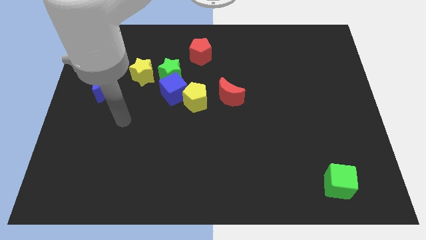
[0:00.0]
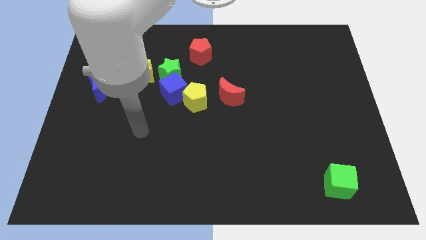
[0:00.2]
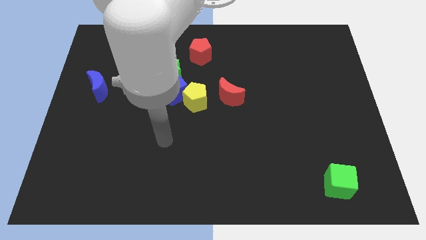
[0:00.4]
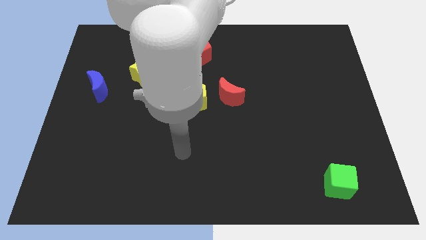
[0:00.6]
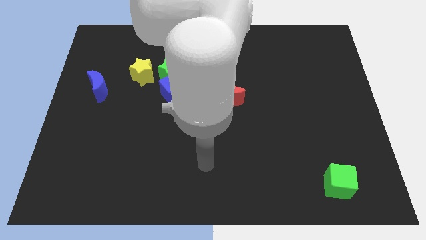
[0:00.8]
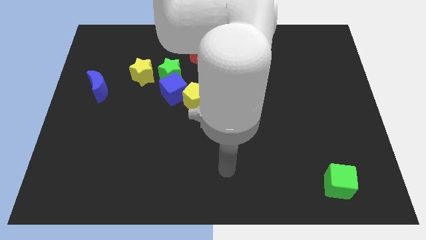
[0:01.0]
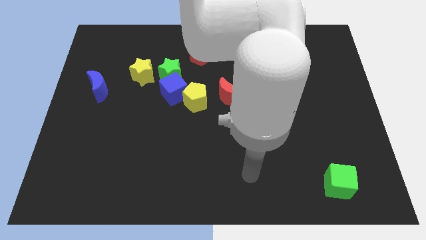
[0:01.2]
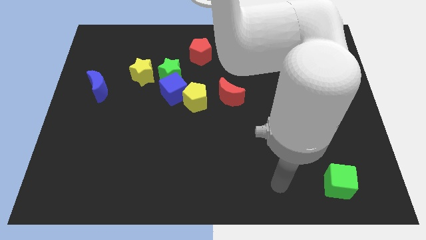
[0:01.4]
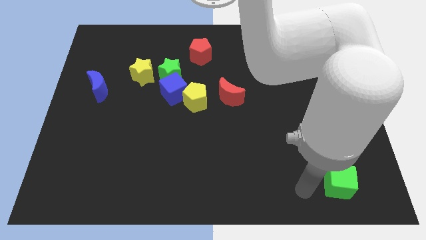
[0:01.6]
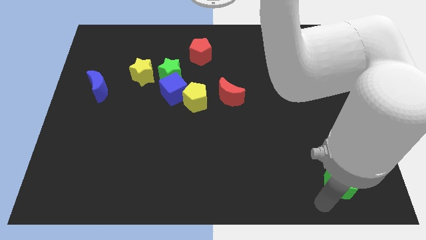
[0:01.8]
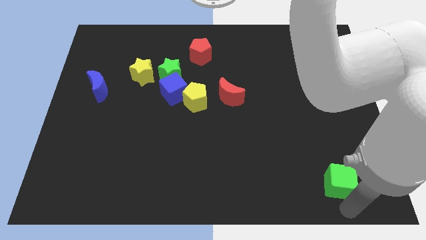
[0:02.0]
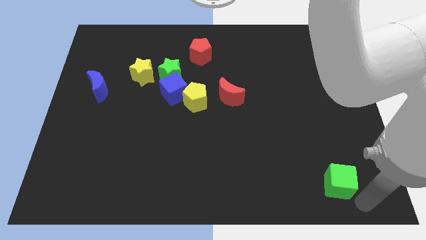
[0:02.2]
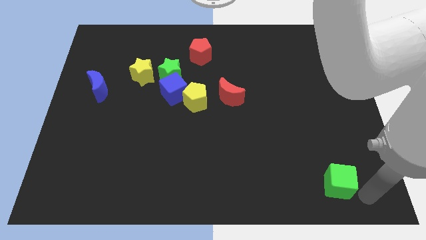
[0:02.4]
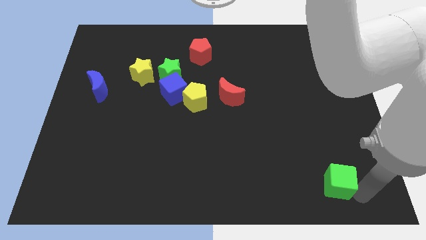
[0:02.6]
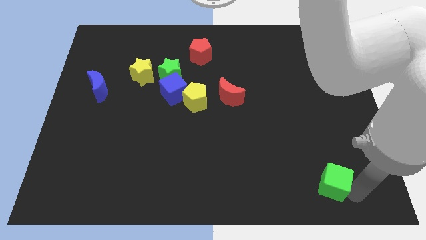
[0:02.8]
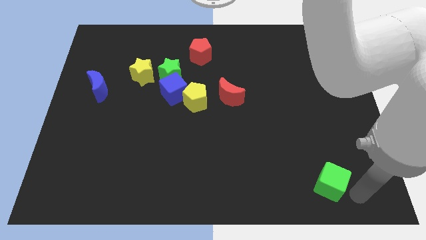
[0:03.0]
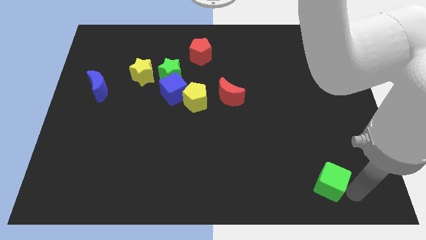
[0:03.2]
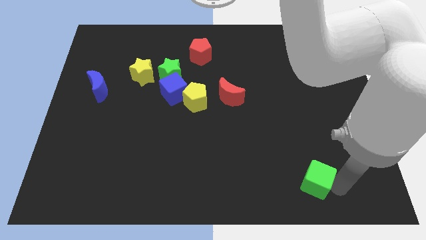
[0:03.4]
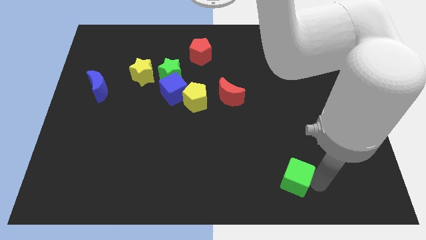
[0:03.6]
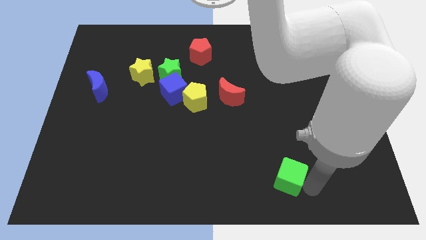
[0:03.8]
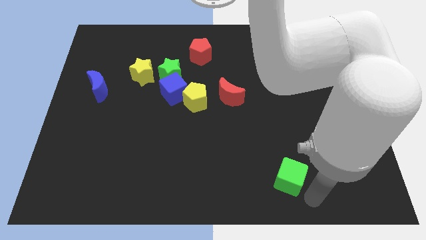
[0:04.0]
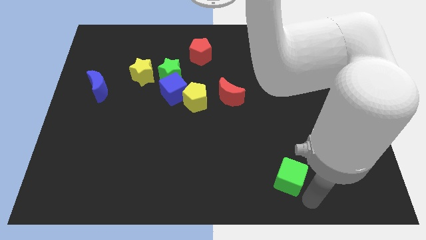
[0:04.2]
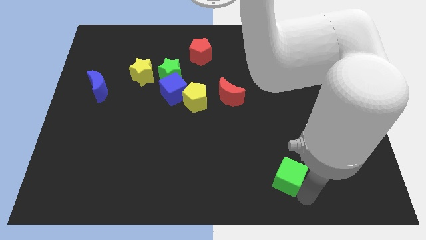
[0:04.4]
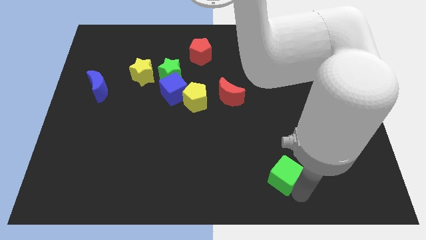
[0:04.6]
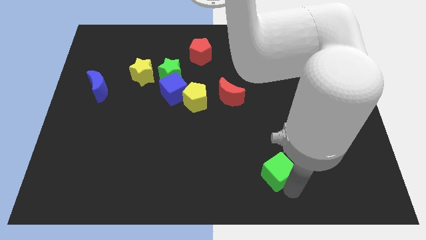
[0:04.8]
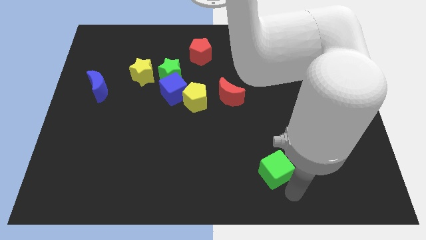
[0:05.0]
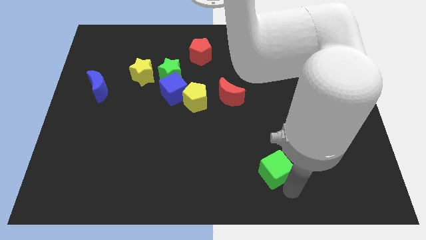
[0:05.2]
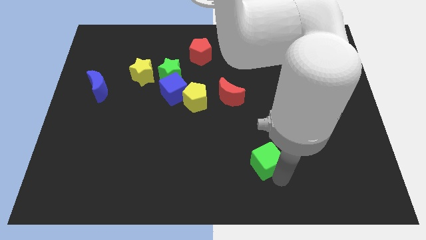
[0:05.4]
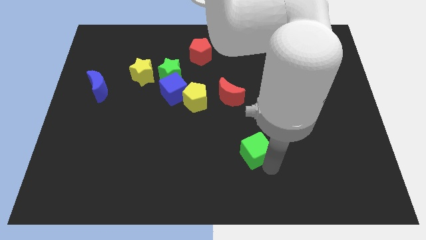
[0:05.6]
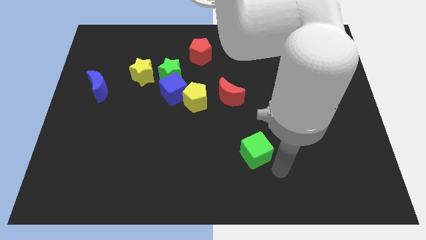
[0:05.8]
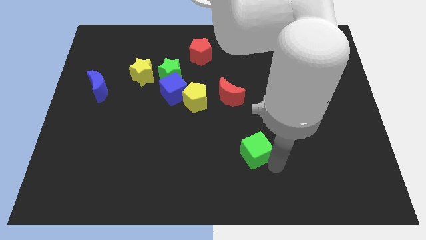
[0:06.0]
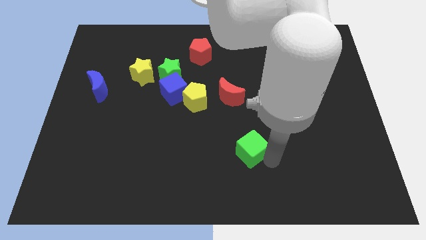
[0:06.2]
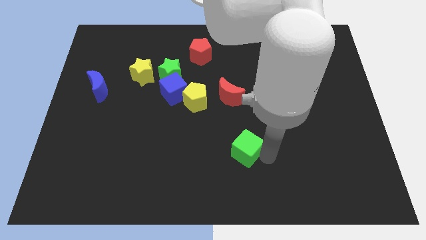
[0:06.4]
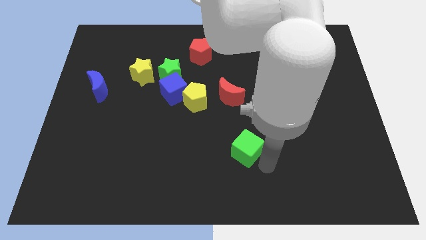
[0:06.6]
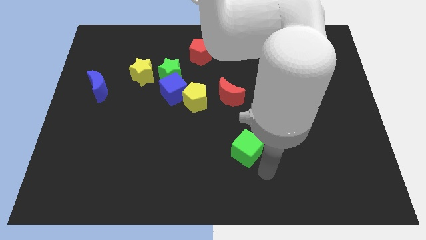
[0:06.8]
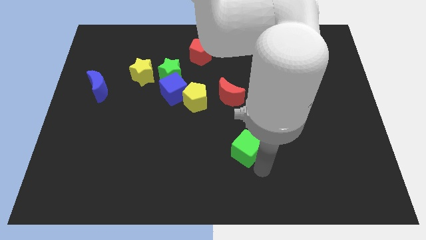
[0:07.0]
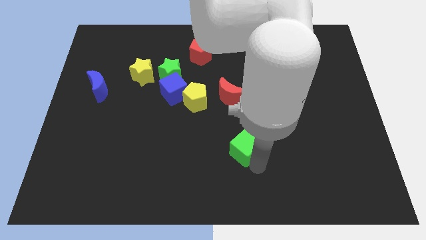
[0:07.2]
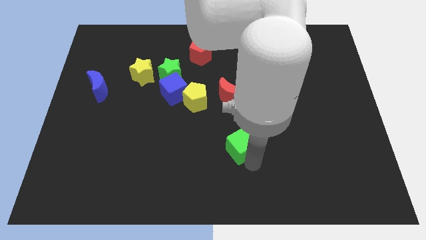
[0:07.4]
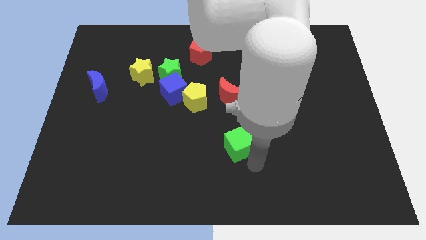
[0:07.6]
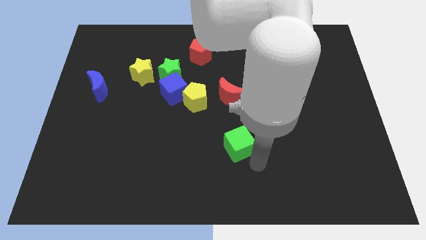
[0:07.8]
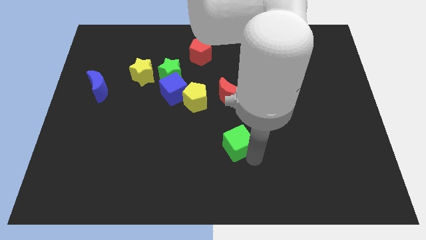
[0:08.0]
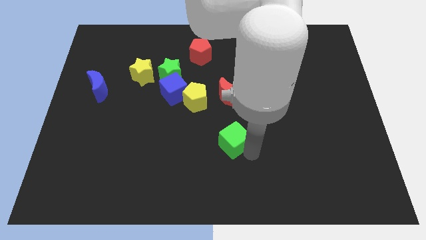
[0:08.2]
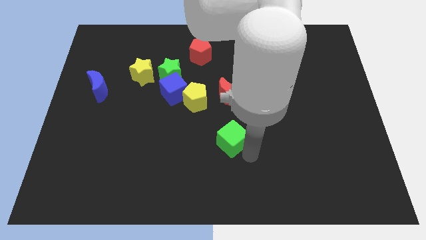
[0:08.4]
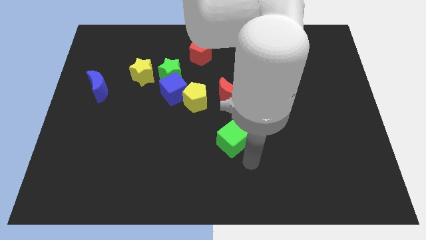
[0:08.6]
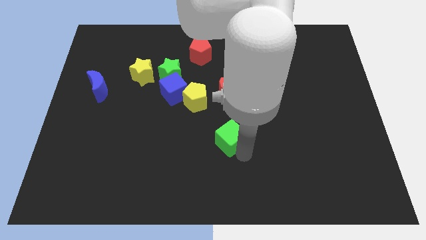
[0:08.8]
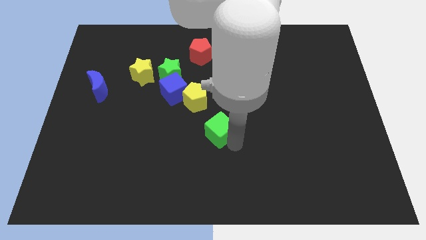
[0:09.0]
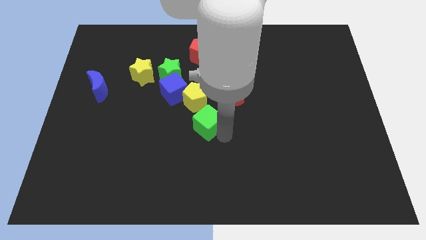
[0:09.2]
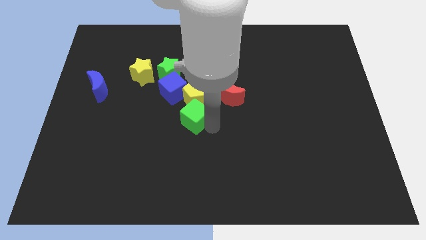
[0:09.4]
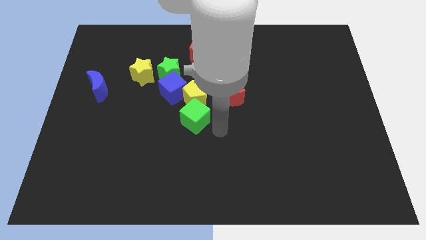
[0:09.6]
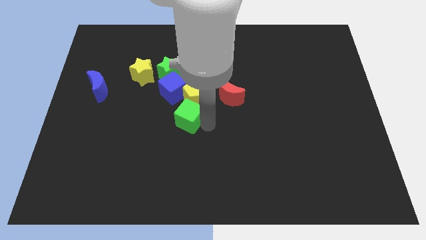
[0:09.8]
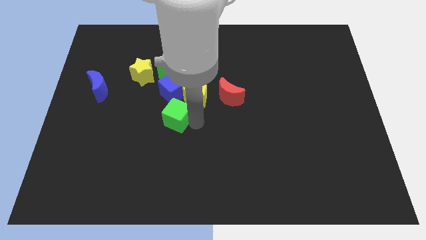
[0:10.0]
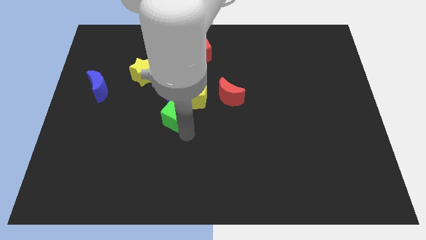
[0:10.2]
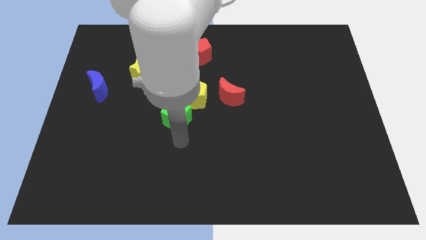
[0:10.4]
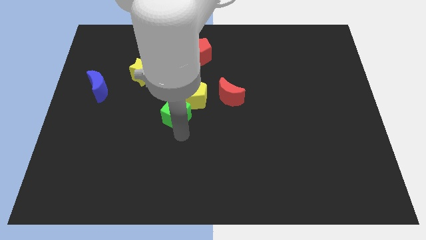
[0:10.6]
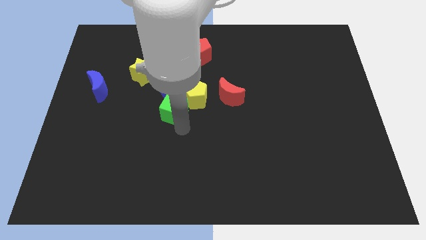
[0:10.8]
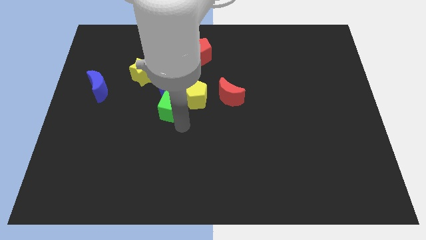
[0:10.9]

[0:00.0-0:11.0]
move the green cube next to the blue cube

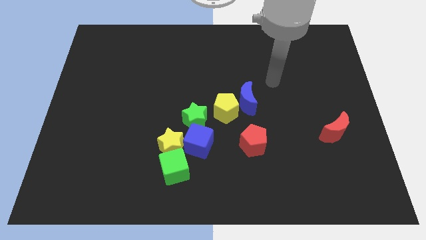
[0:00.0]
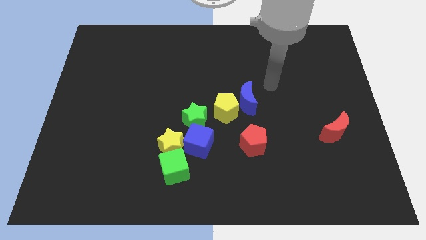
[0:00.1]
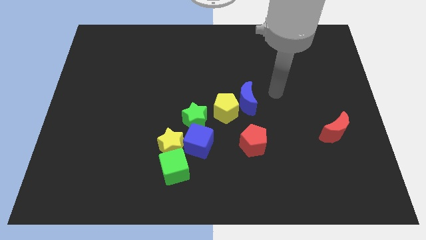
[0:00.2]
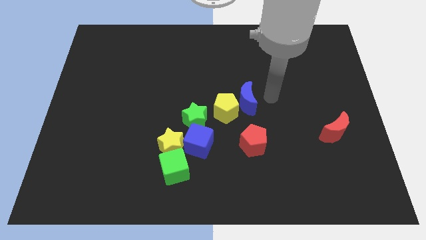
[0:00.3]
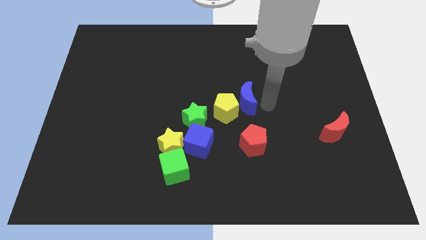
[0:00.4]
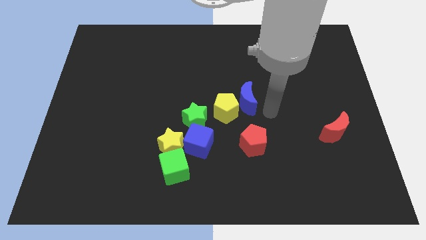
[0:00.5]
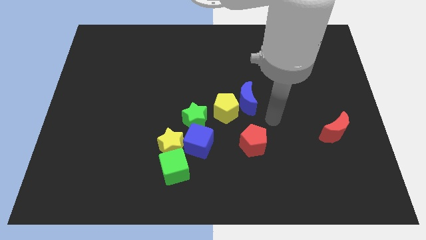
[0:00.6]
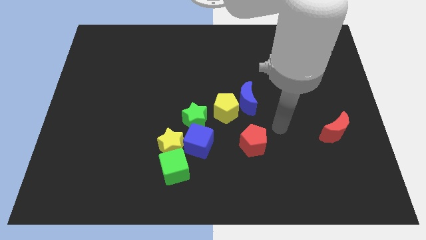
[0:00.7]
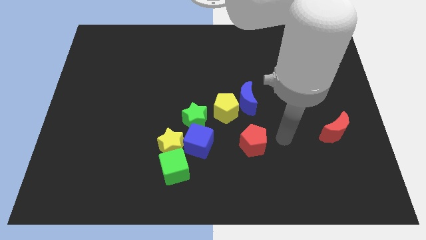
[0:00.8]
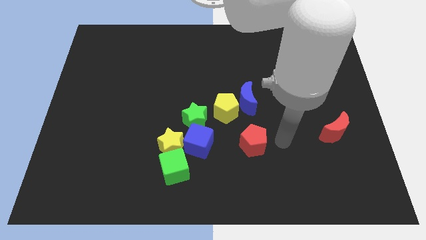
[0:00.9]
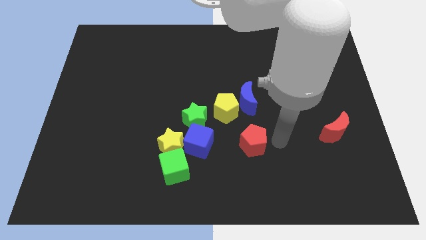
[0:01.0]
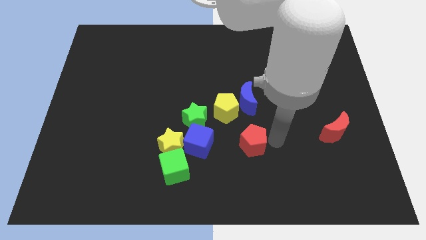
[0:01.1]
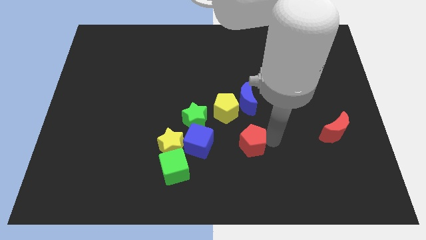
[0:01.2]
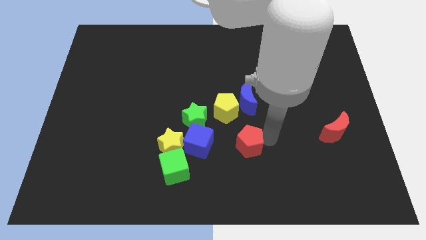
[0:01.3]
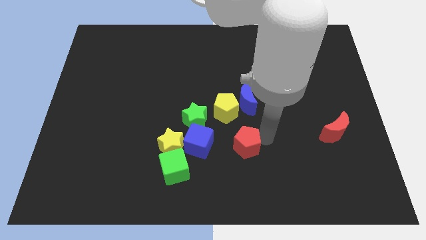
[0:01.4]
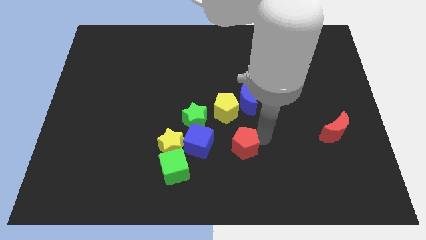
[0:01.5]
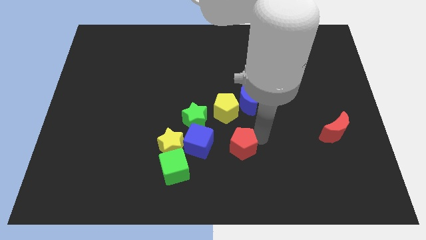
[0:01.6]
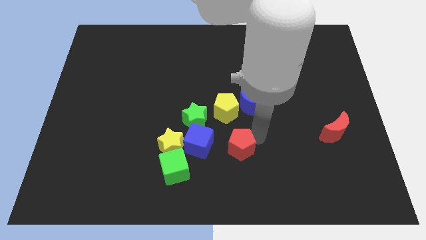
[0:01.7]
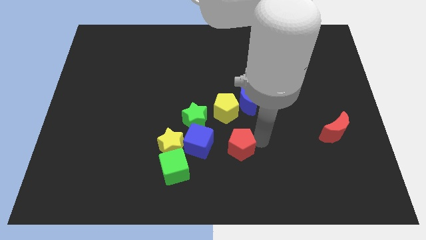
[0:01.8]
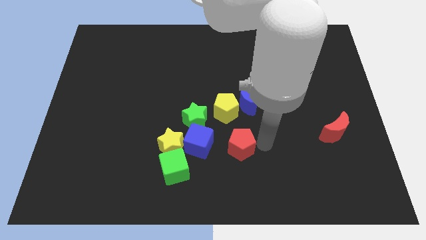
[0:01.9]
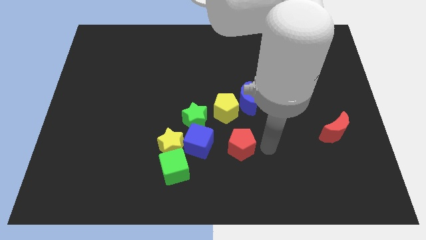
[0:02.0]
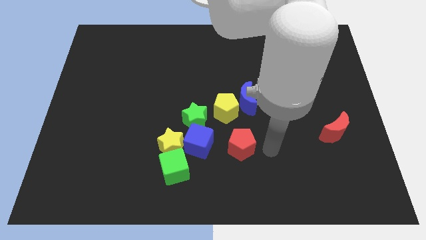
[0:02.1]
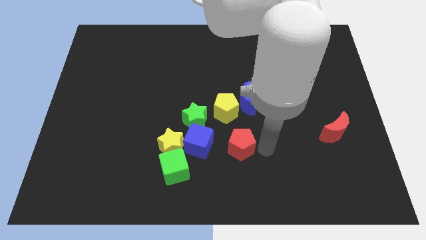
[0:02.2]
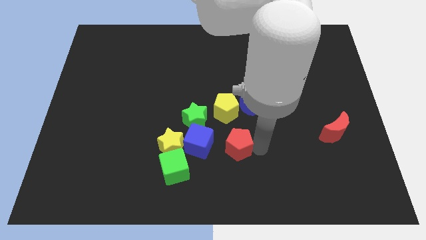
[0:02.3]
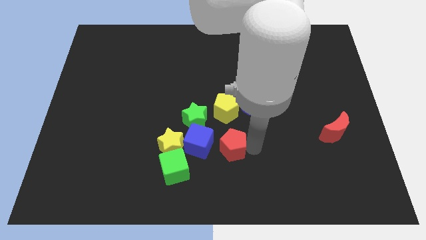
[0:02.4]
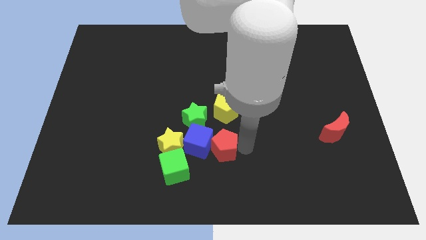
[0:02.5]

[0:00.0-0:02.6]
slide the red pentagon close to the blue cube
